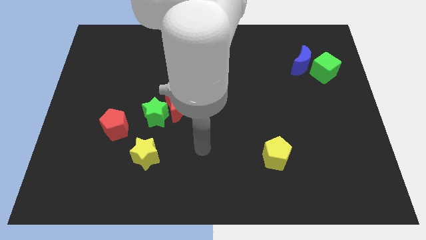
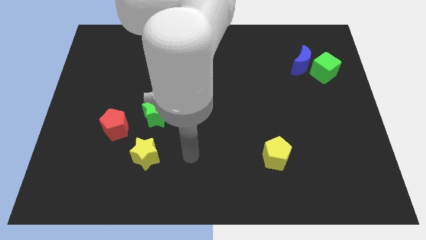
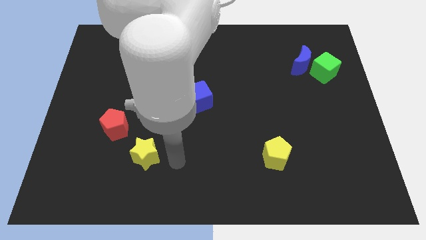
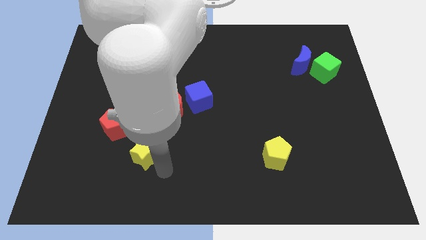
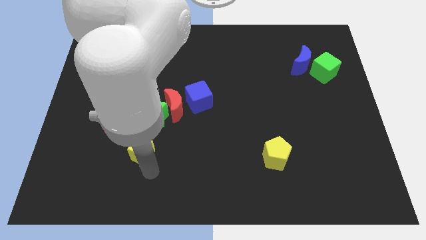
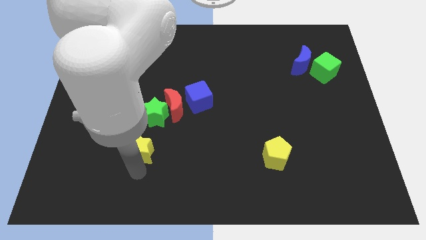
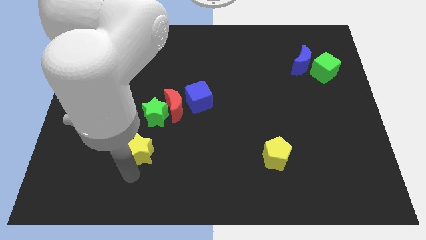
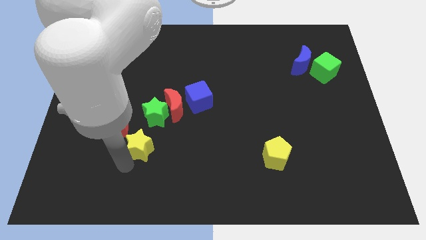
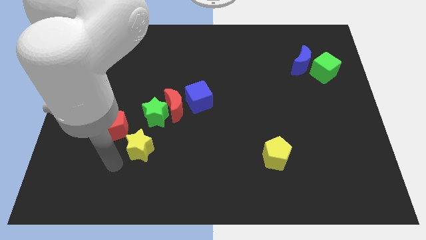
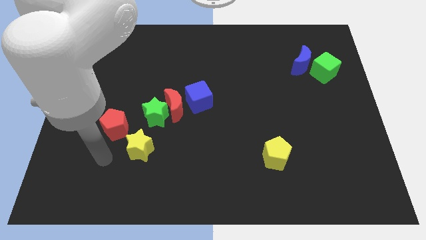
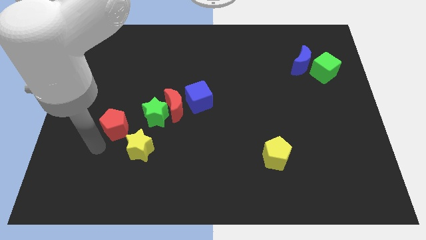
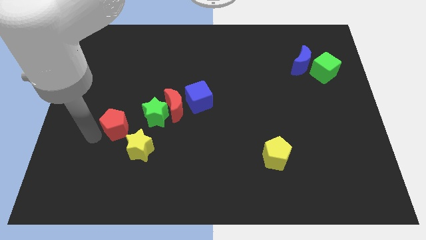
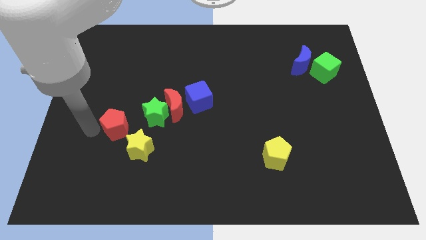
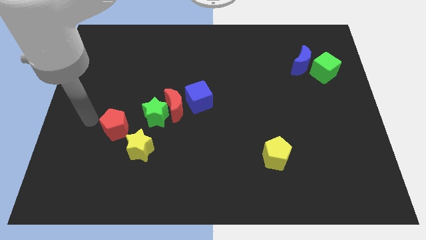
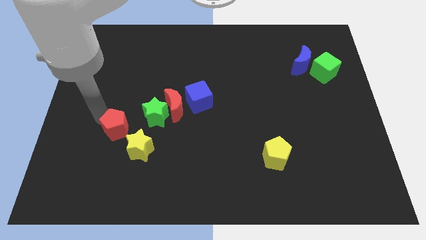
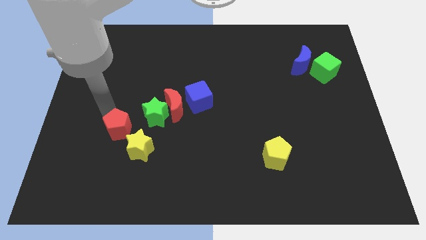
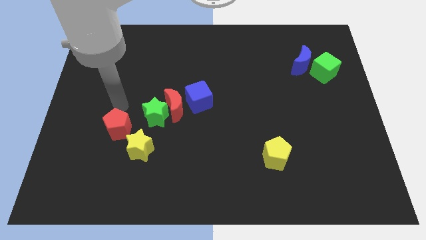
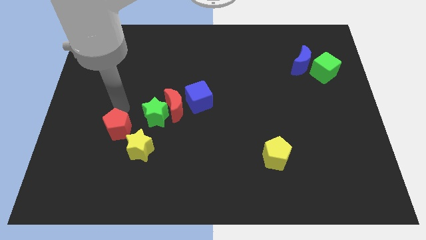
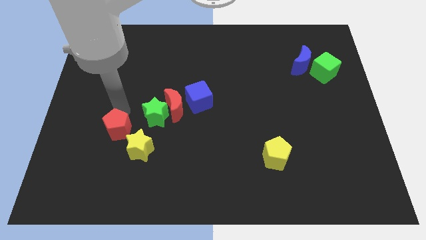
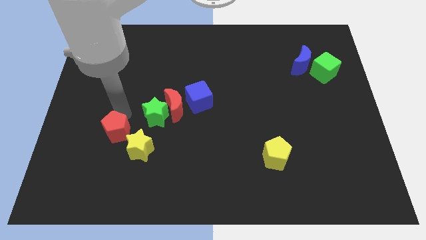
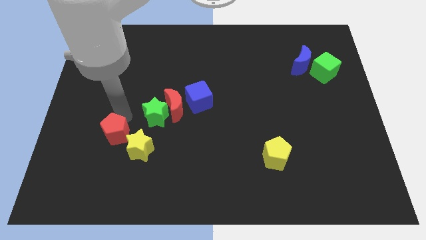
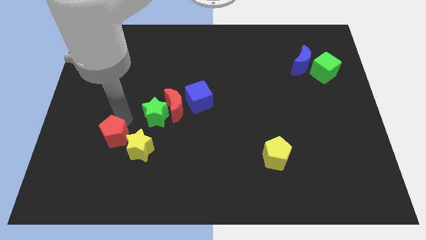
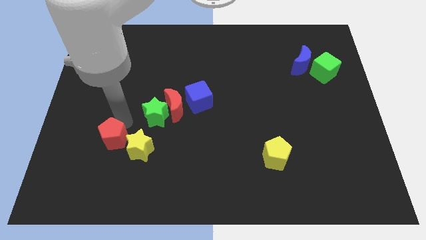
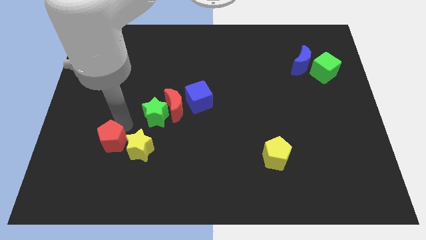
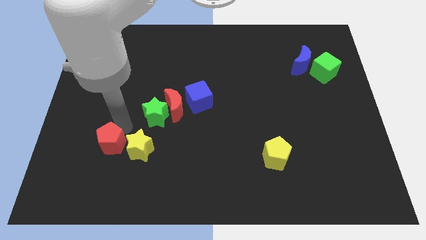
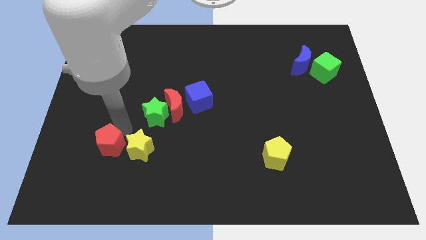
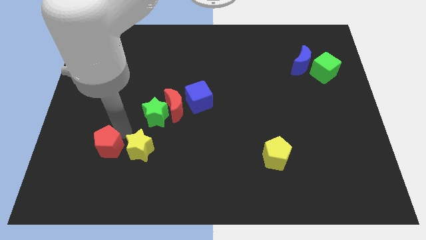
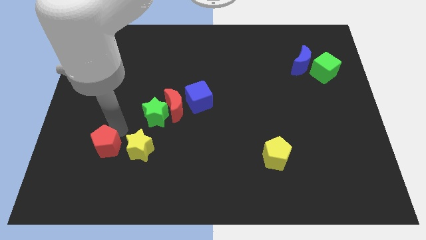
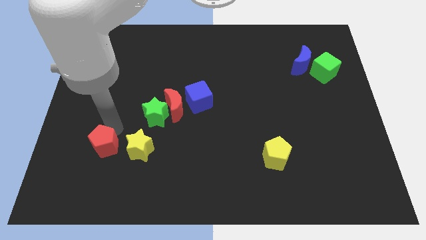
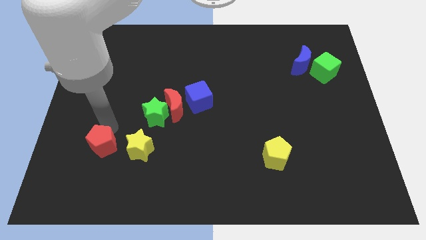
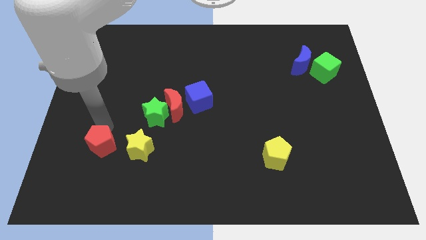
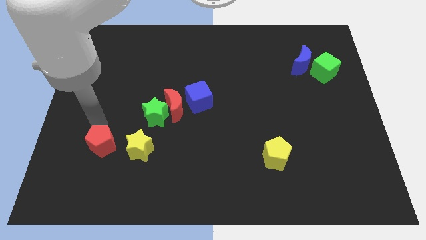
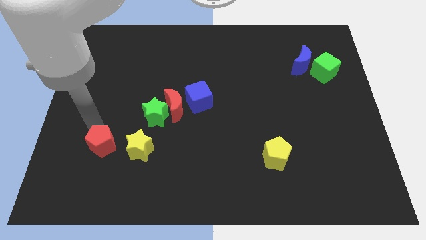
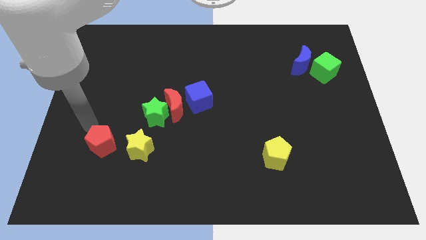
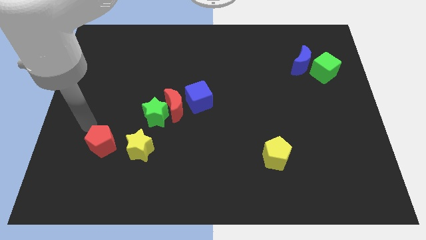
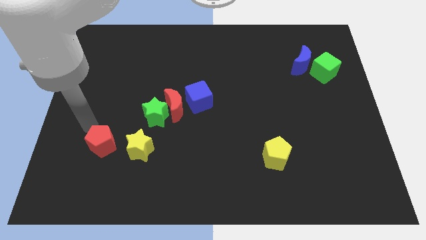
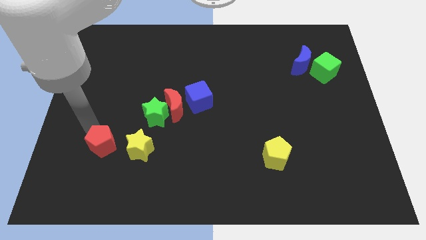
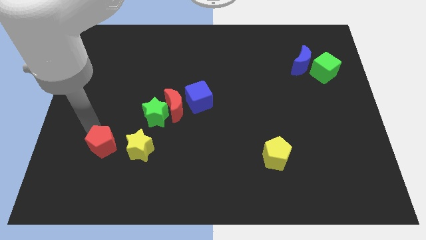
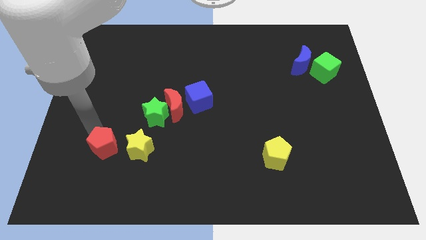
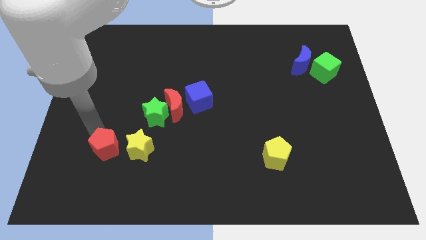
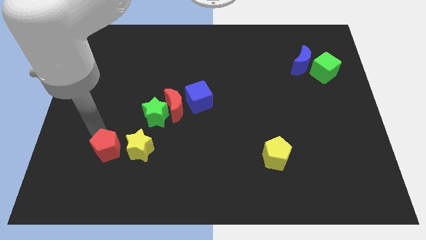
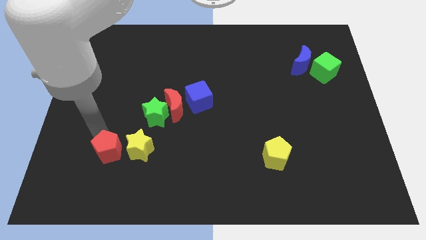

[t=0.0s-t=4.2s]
put the red pentagon diagonally down and to the left of the yellow star

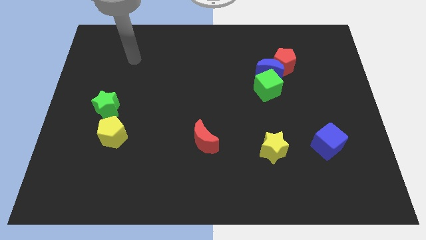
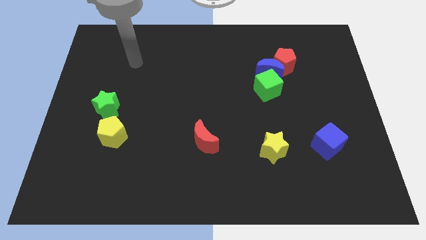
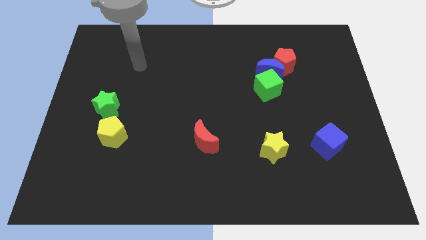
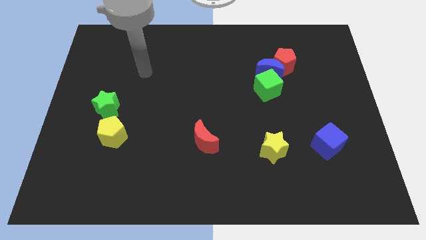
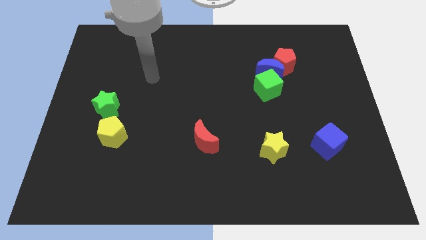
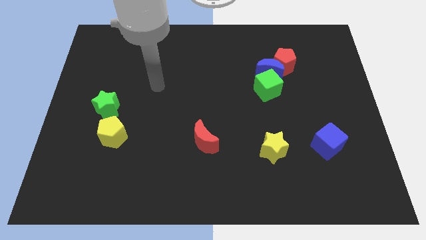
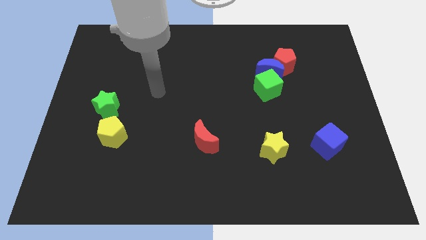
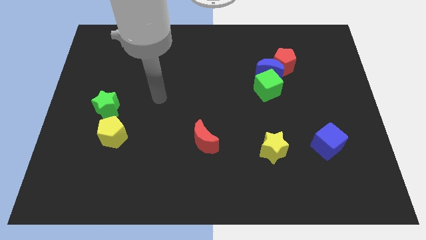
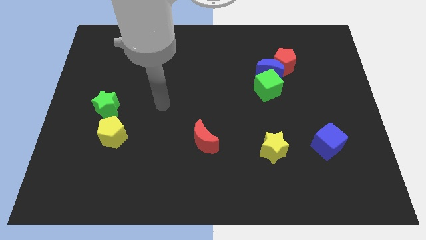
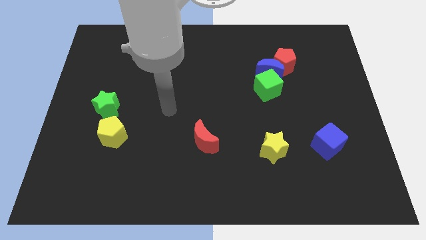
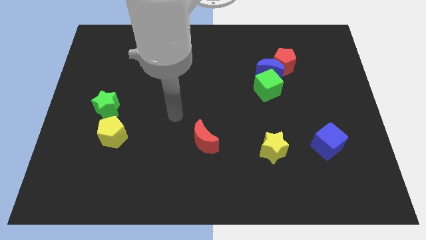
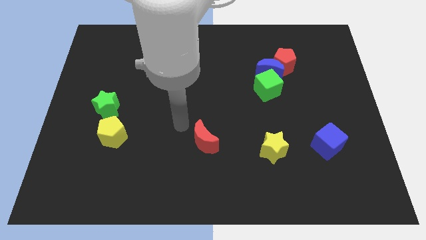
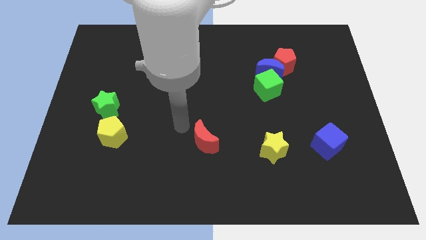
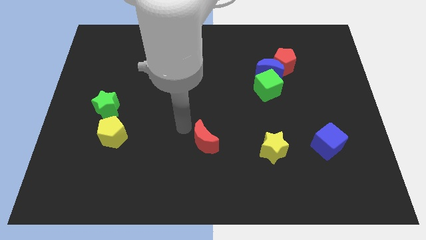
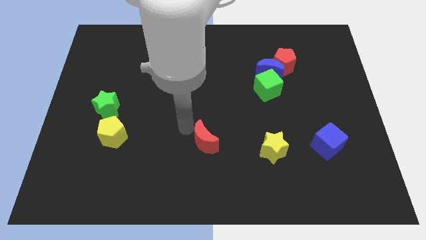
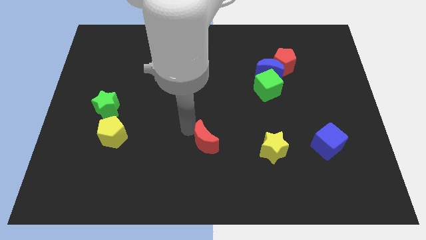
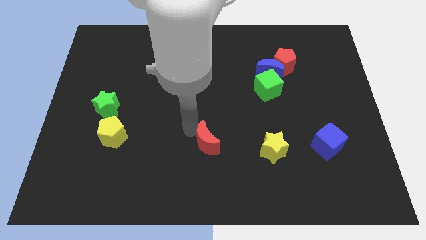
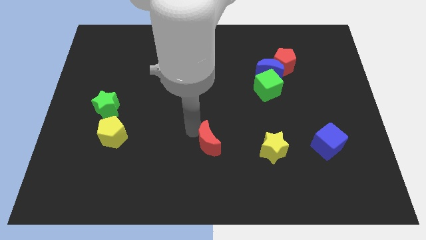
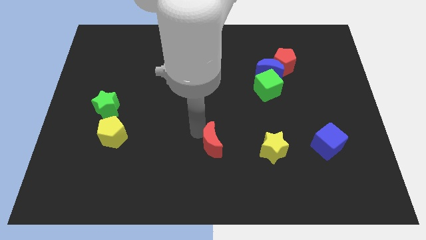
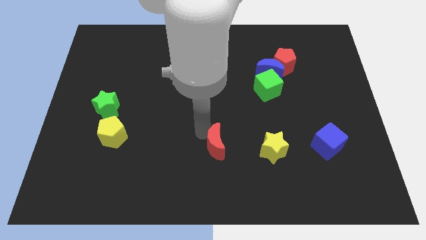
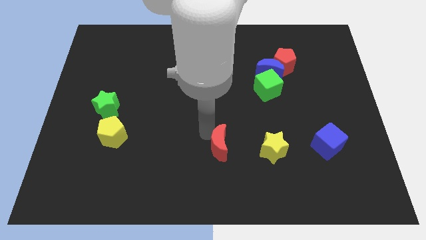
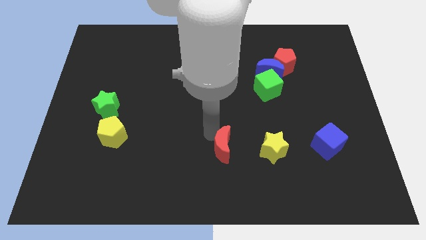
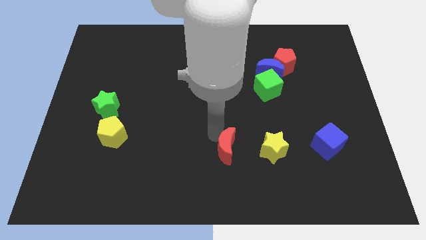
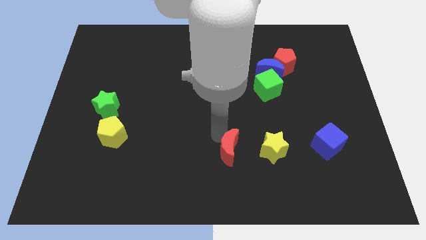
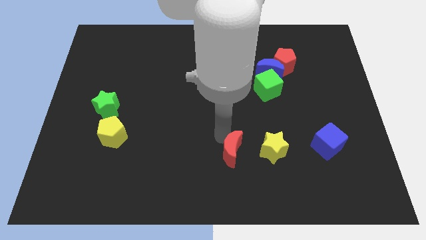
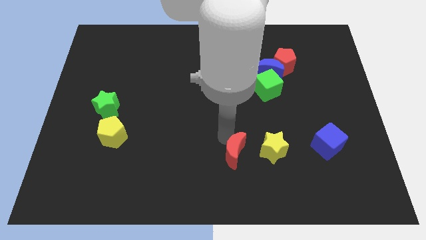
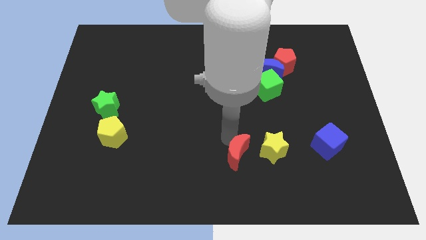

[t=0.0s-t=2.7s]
push the red moon to the bottom left side of the yellow star

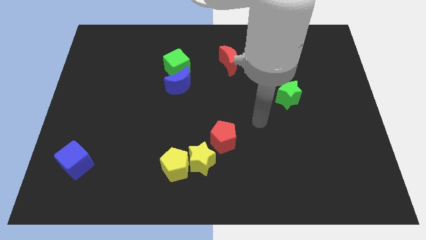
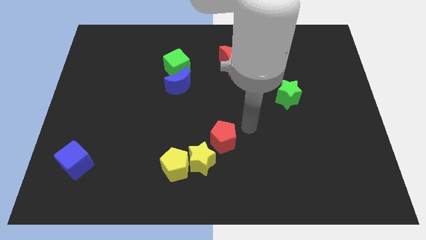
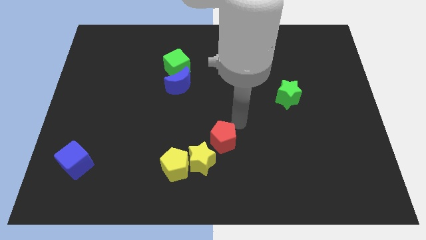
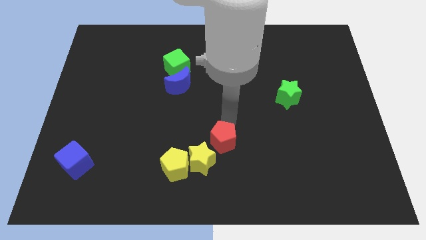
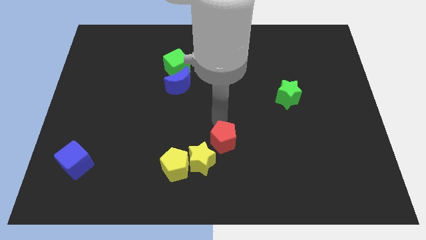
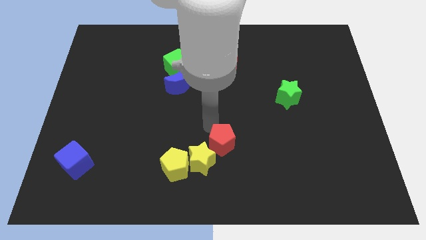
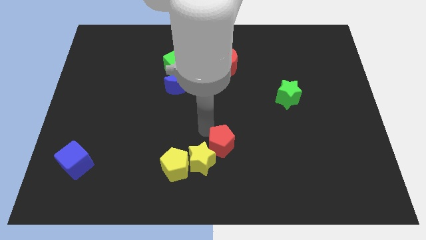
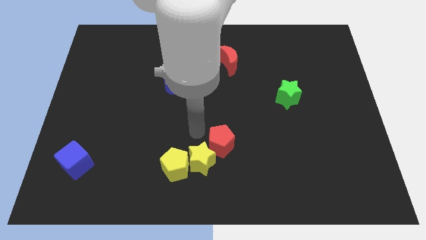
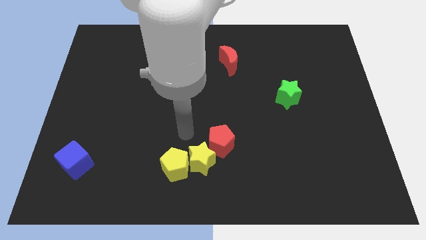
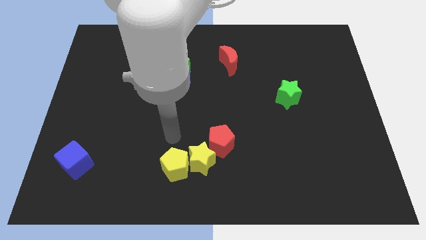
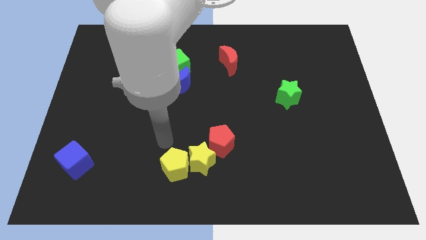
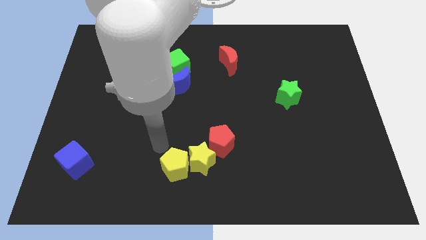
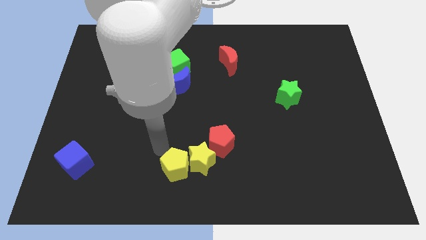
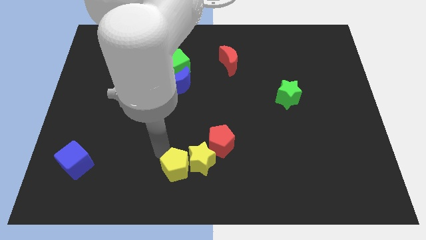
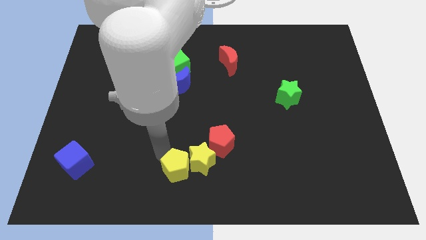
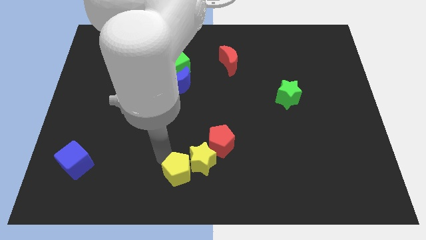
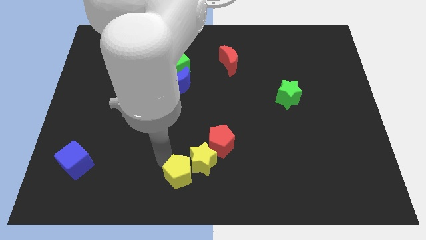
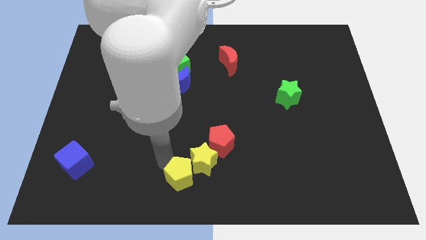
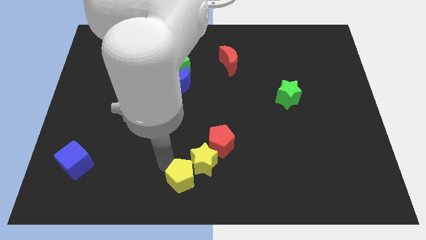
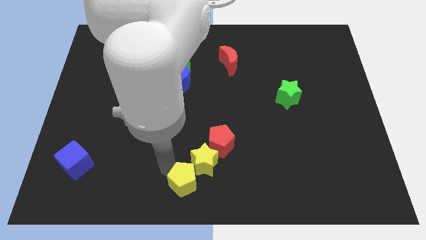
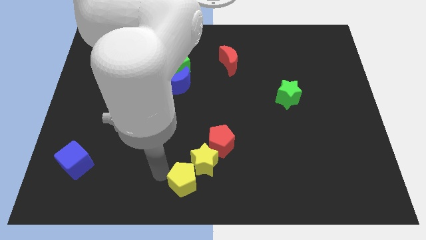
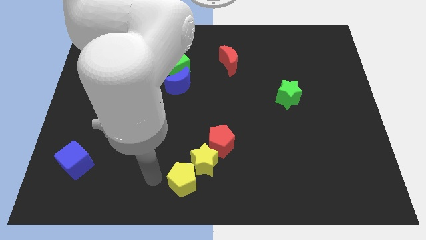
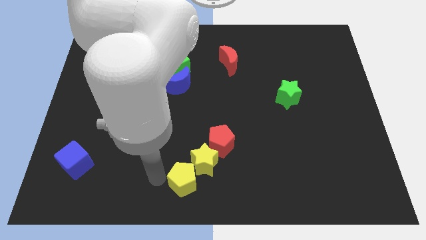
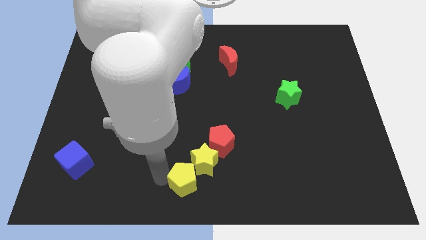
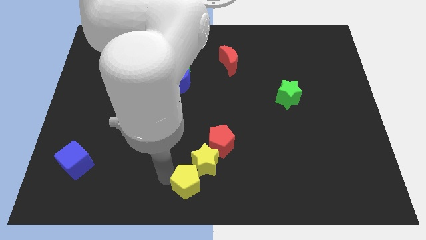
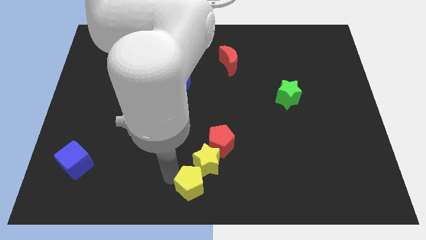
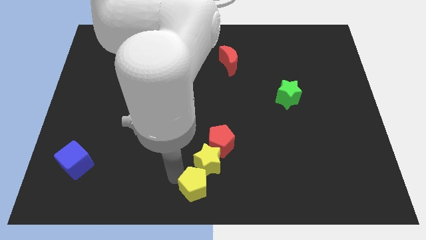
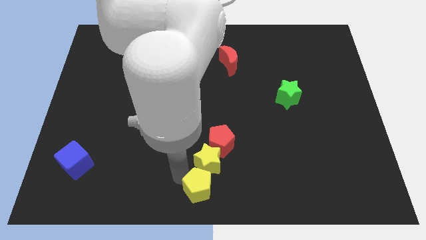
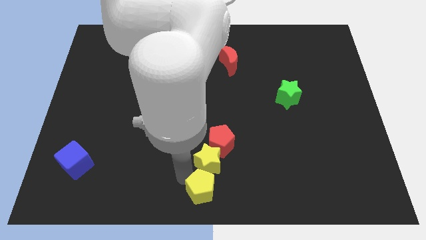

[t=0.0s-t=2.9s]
move the yellow pentagon to the bottom right side of the yellow star
